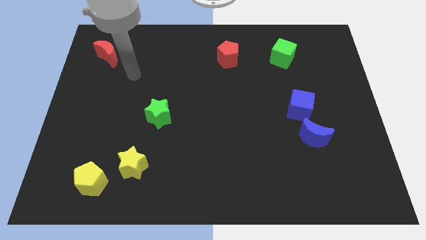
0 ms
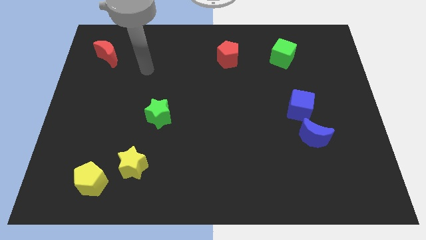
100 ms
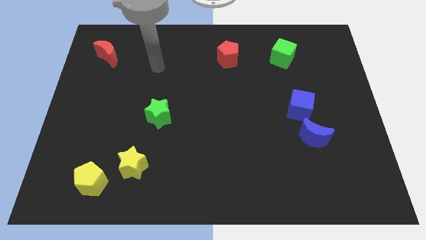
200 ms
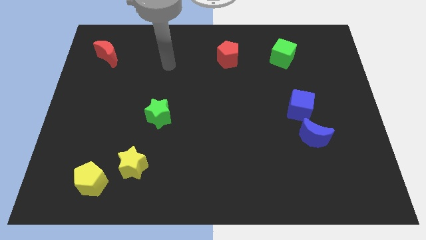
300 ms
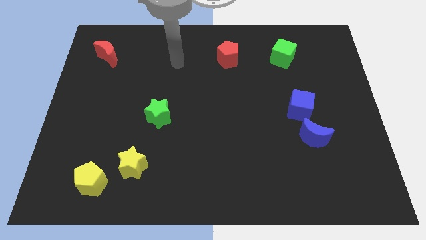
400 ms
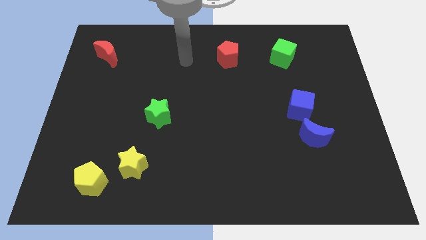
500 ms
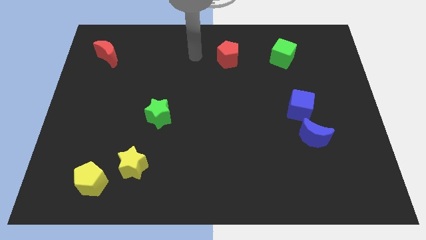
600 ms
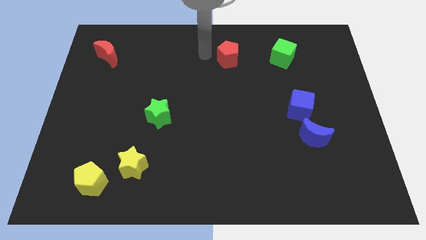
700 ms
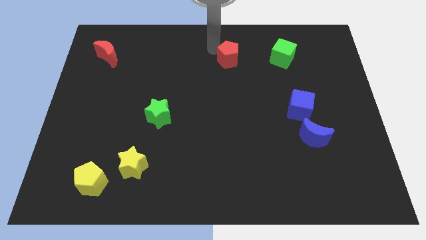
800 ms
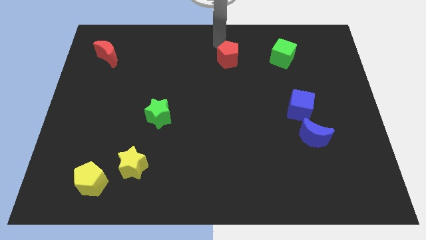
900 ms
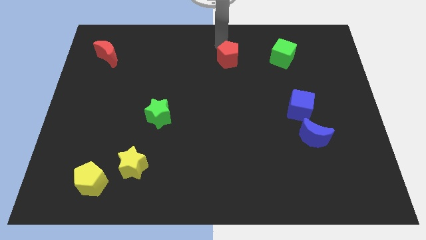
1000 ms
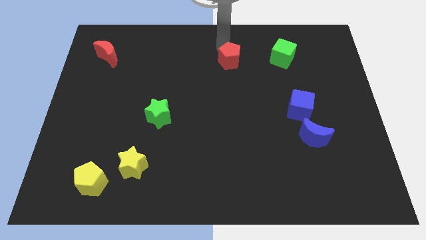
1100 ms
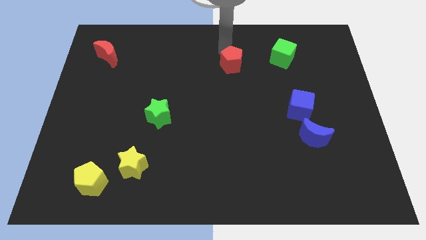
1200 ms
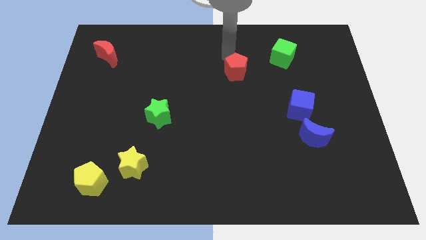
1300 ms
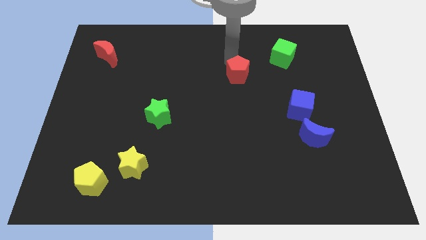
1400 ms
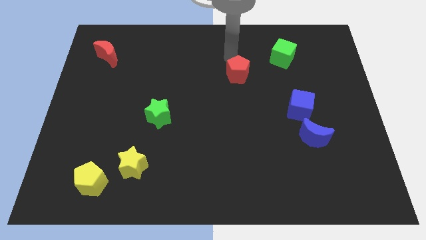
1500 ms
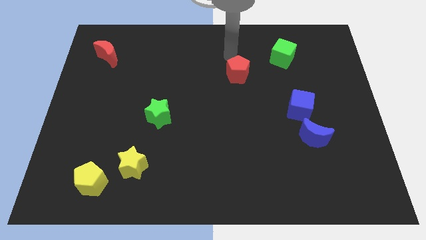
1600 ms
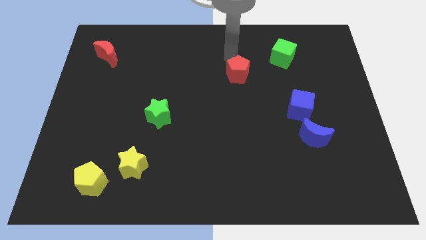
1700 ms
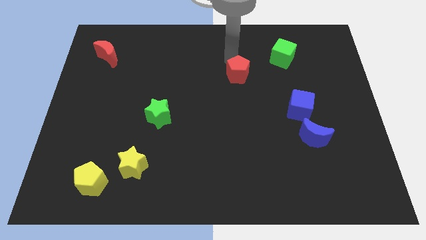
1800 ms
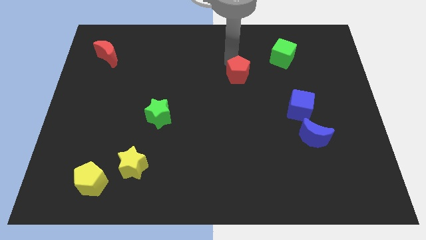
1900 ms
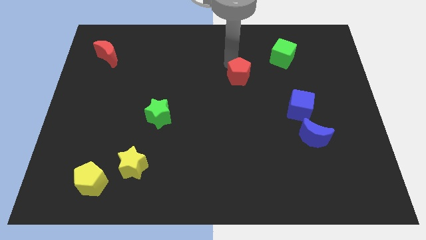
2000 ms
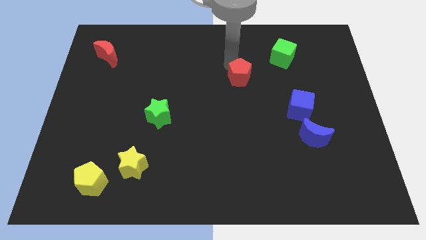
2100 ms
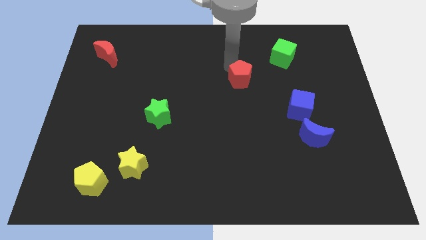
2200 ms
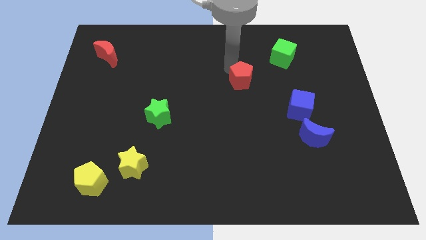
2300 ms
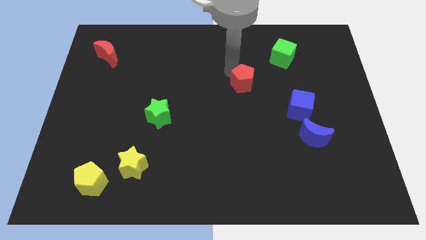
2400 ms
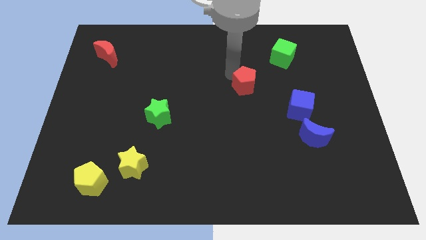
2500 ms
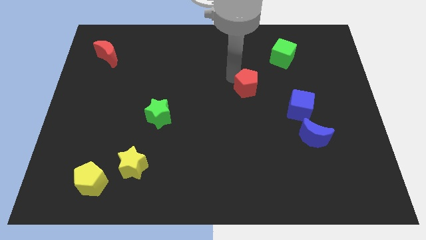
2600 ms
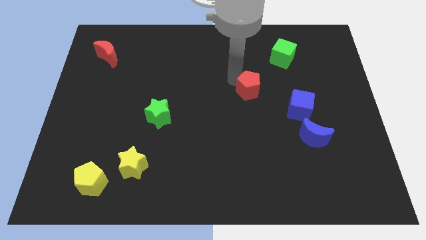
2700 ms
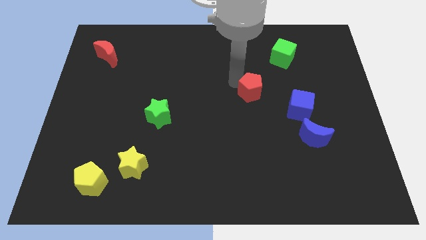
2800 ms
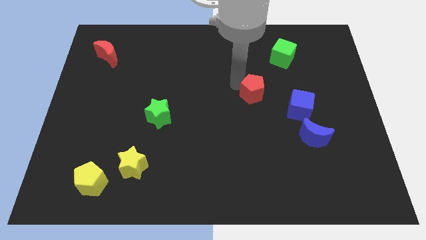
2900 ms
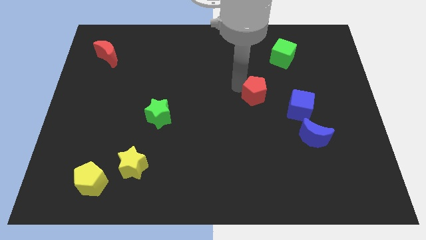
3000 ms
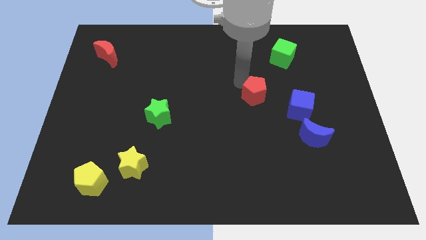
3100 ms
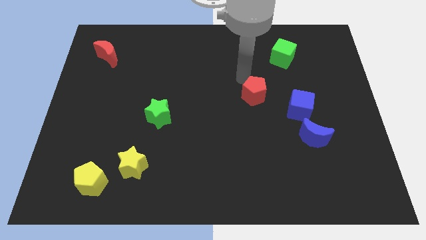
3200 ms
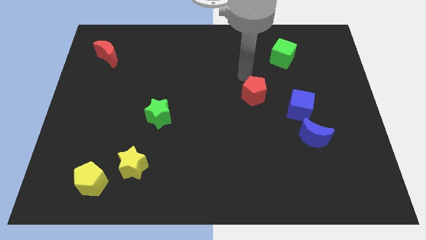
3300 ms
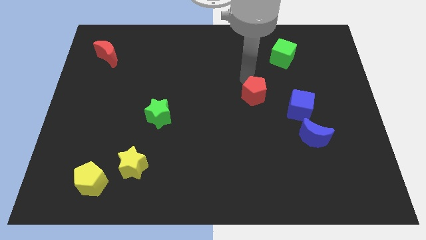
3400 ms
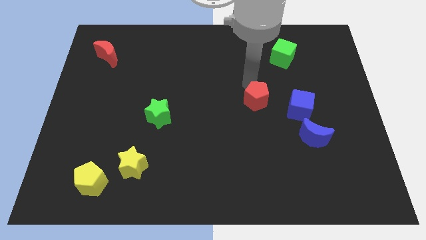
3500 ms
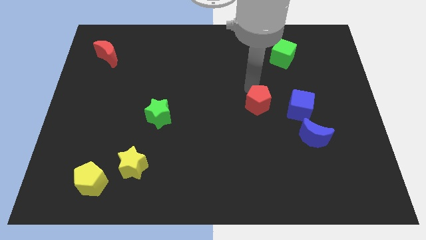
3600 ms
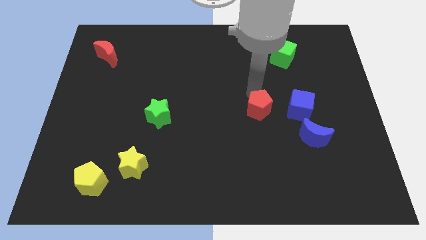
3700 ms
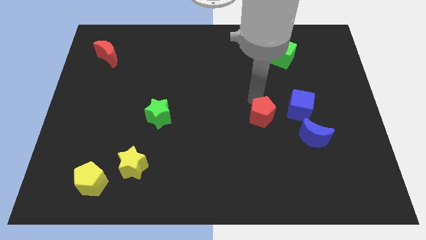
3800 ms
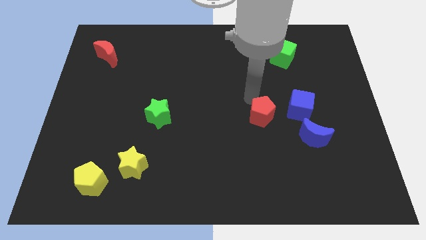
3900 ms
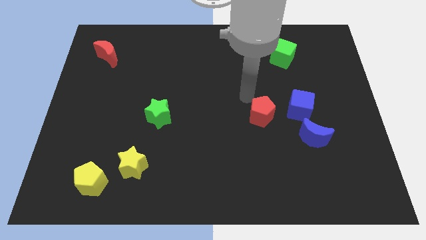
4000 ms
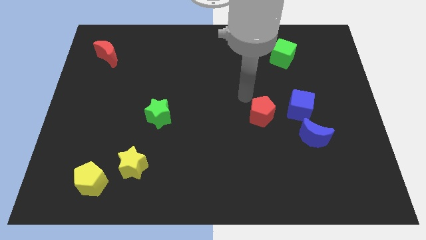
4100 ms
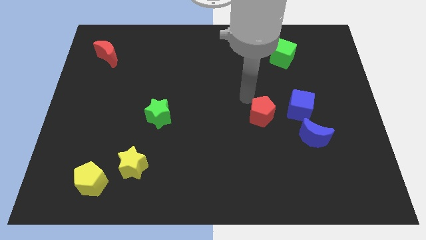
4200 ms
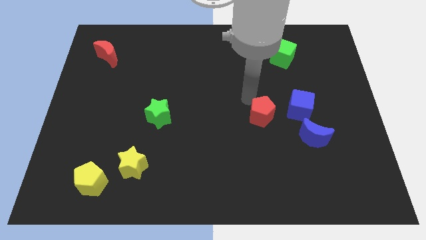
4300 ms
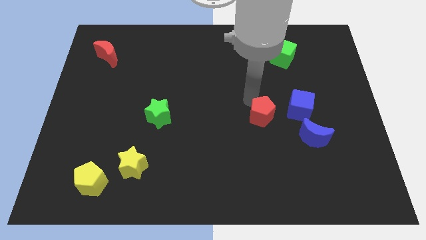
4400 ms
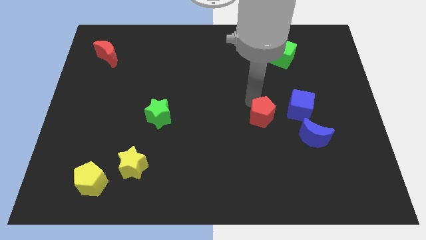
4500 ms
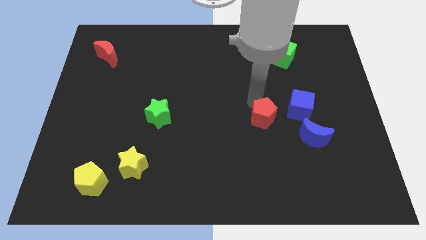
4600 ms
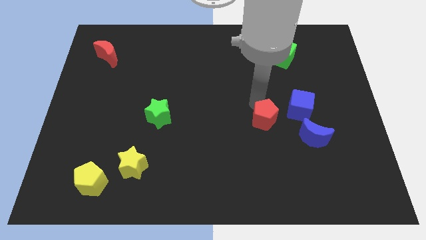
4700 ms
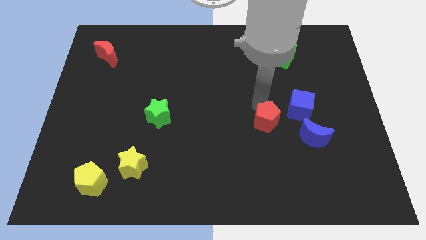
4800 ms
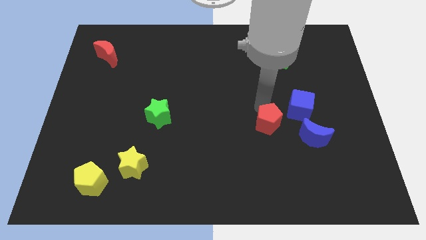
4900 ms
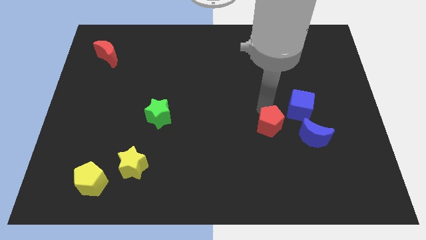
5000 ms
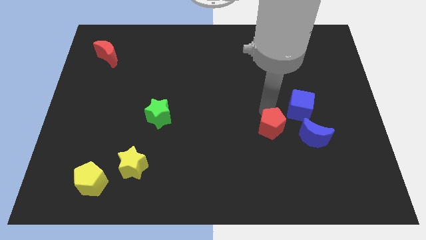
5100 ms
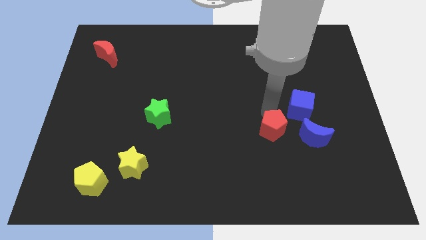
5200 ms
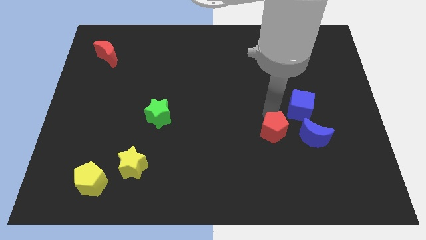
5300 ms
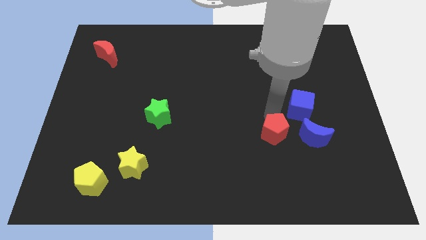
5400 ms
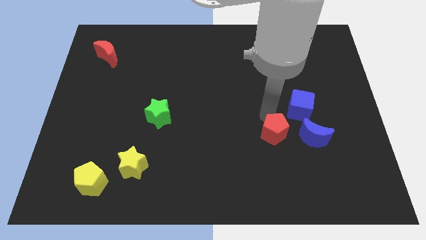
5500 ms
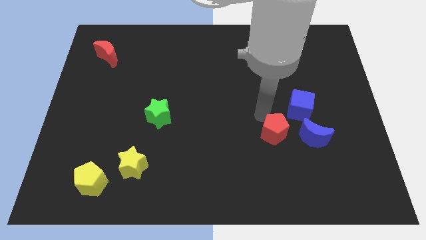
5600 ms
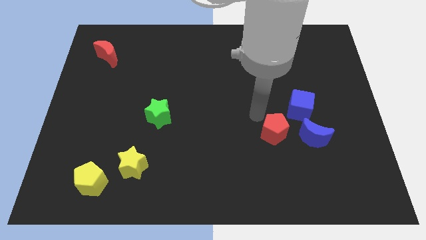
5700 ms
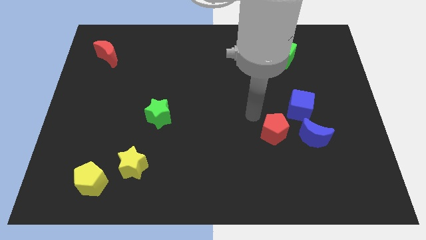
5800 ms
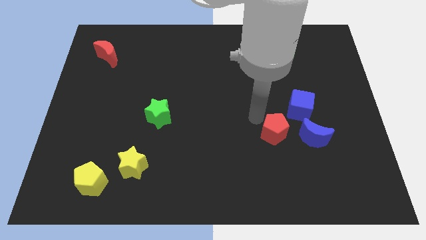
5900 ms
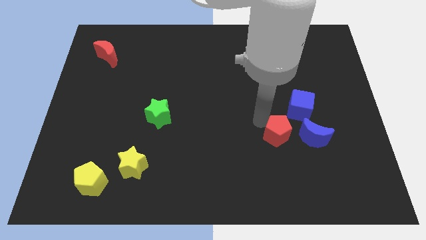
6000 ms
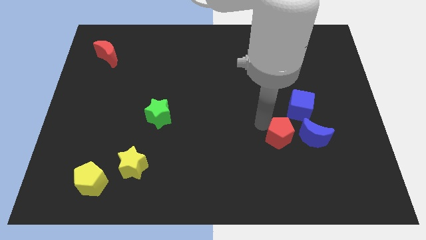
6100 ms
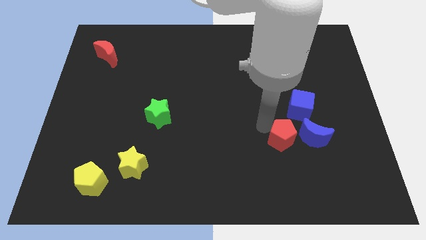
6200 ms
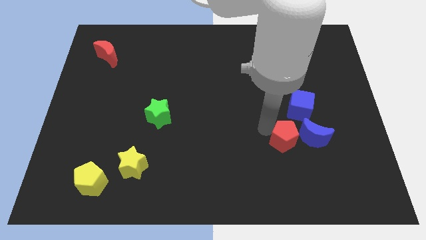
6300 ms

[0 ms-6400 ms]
push the red pentagon to the bottom of the blue cube

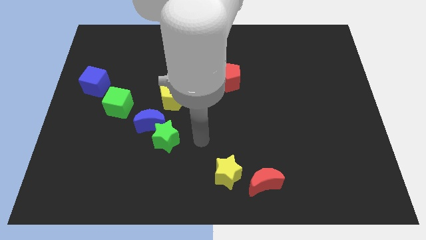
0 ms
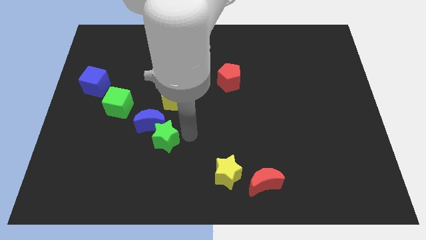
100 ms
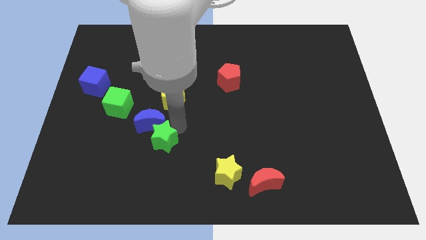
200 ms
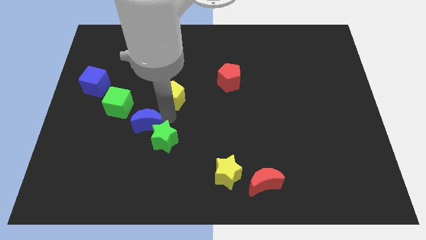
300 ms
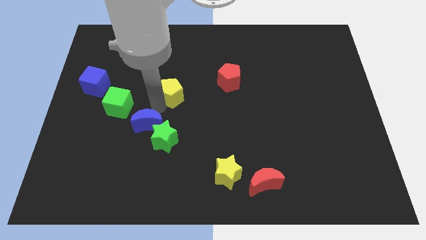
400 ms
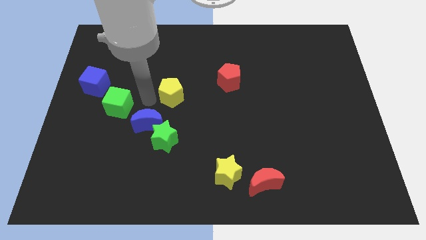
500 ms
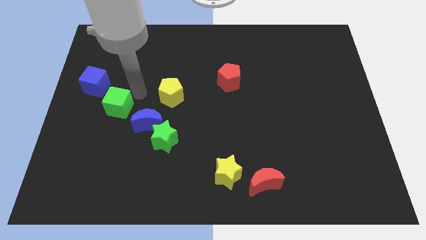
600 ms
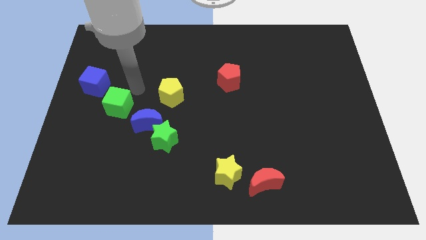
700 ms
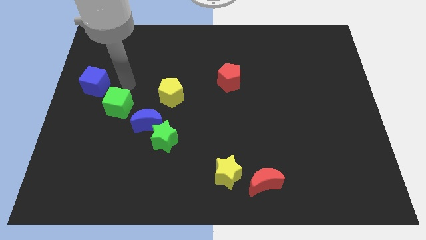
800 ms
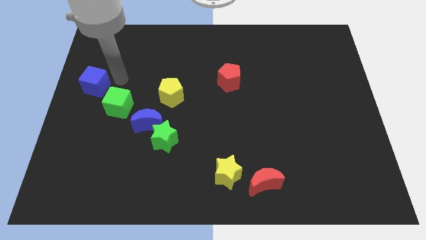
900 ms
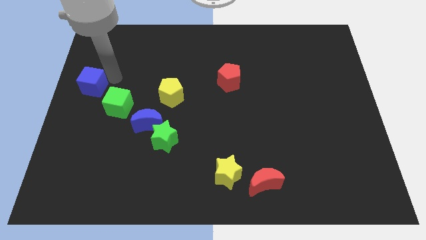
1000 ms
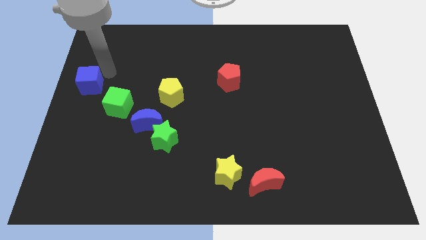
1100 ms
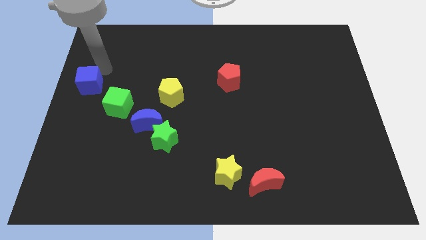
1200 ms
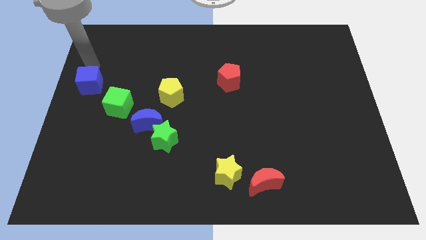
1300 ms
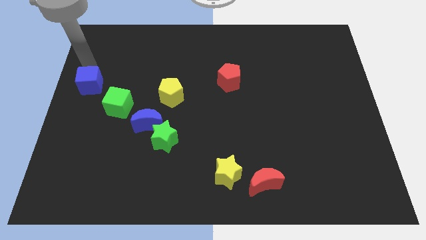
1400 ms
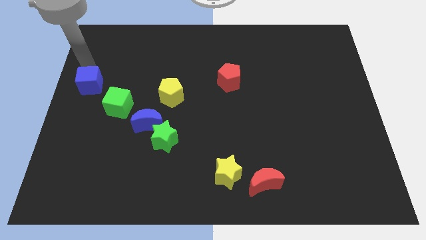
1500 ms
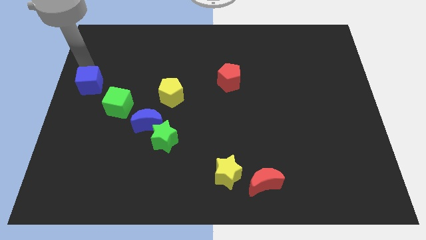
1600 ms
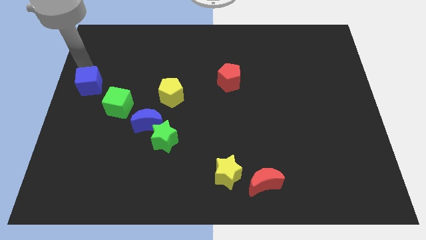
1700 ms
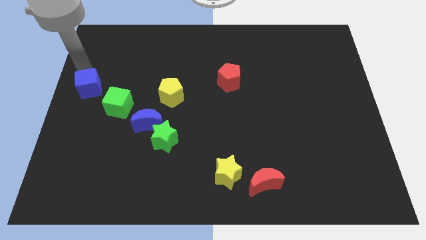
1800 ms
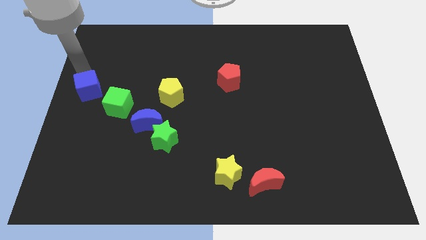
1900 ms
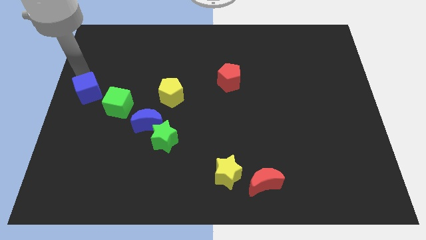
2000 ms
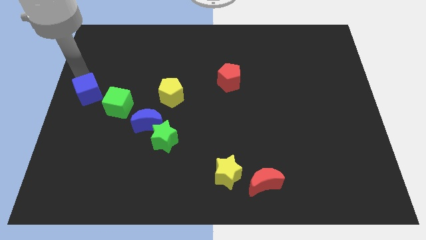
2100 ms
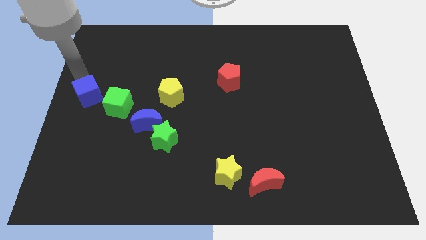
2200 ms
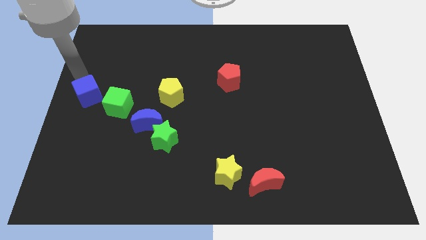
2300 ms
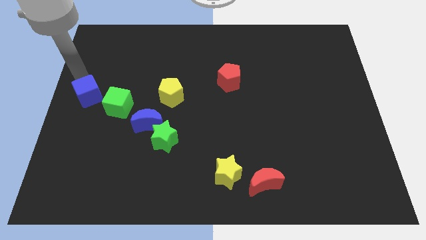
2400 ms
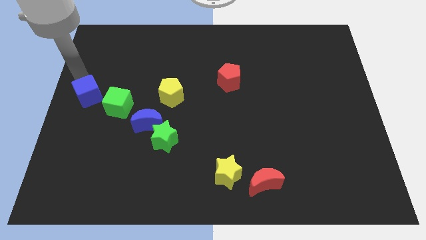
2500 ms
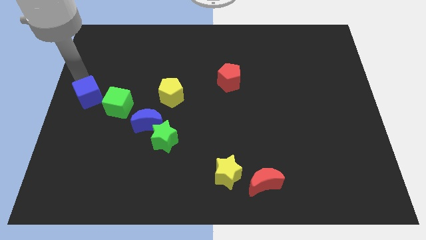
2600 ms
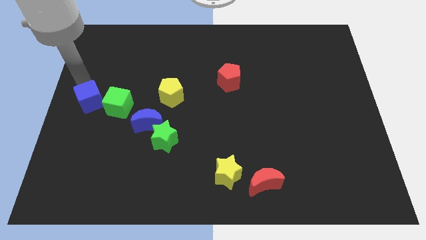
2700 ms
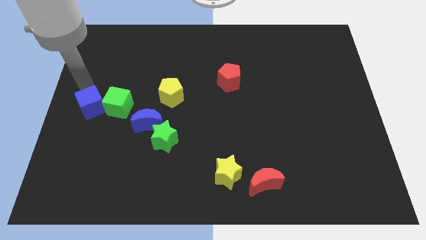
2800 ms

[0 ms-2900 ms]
move the blue cube to the bottom left side of the green cube
